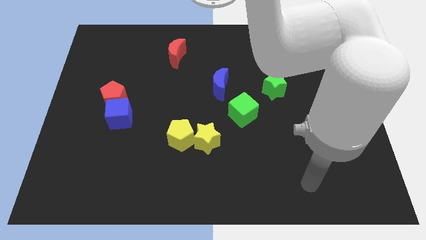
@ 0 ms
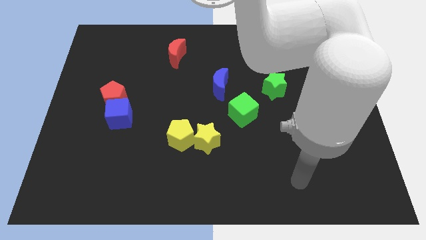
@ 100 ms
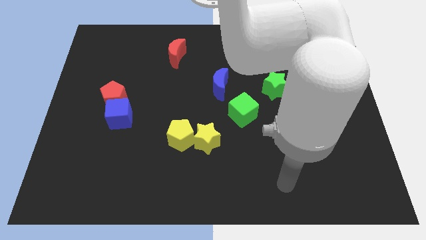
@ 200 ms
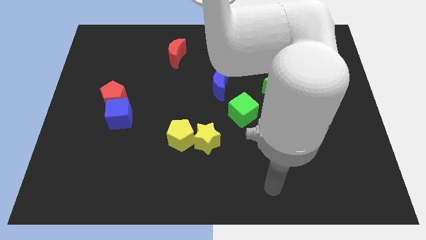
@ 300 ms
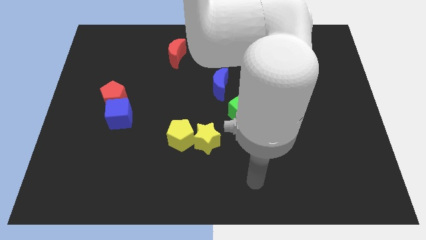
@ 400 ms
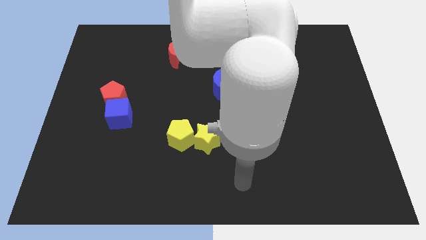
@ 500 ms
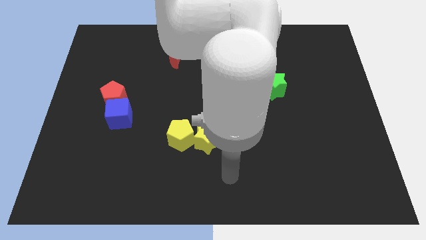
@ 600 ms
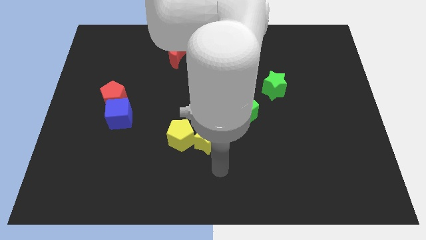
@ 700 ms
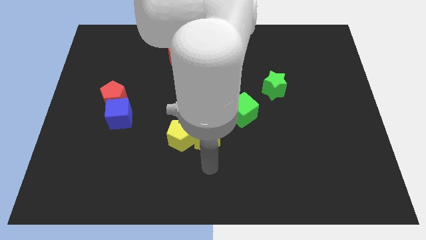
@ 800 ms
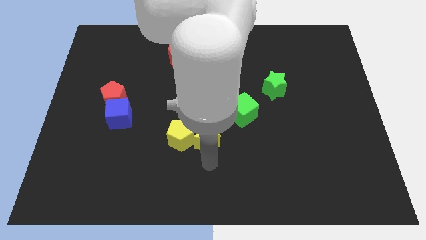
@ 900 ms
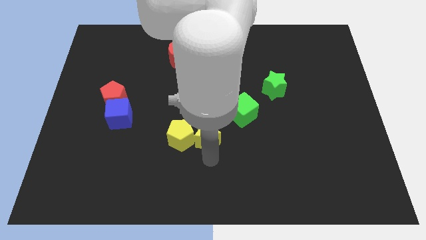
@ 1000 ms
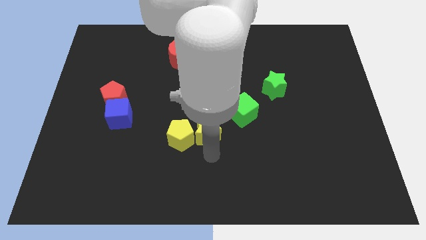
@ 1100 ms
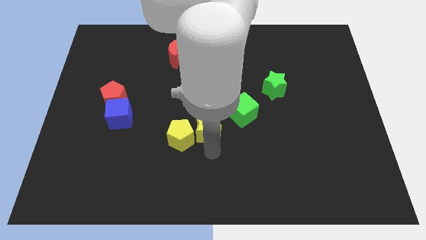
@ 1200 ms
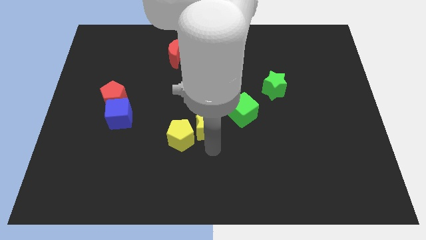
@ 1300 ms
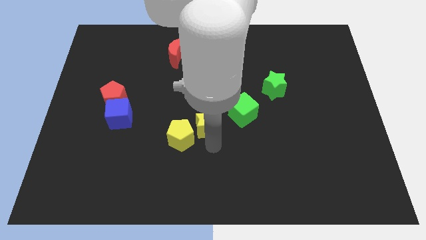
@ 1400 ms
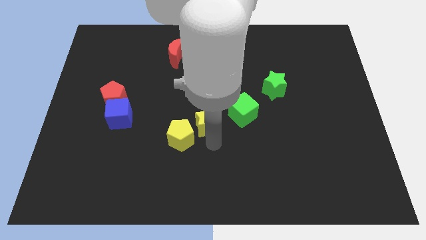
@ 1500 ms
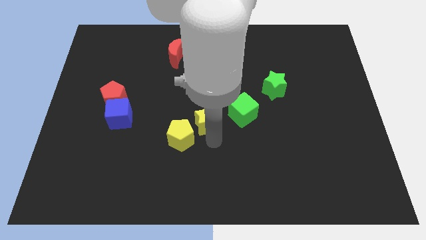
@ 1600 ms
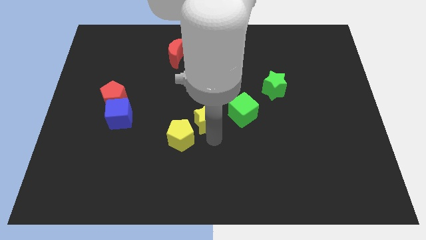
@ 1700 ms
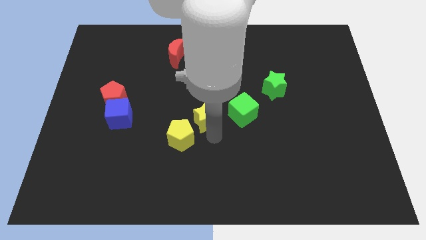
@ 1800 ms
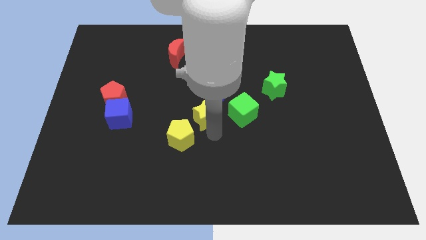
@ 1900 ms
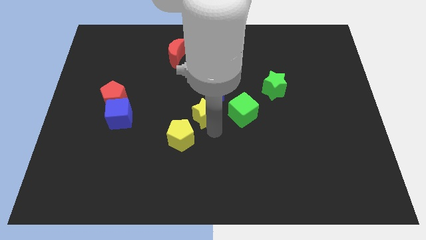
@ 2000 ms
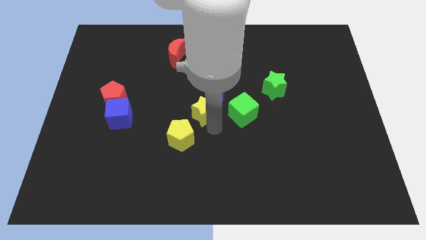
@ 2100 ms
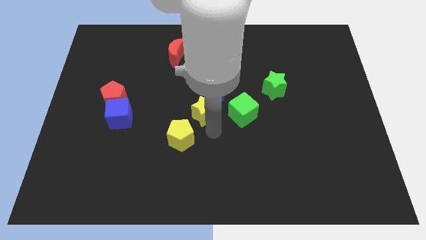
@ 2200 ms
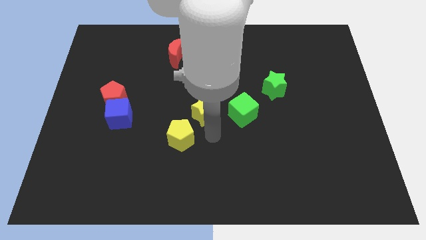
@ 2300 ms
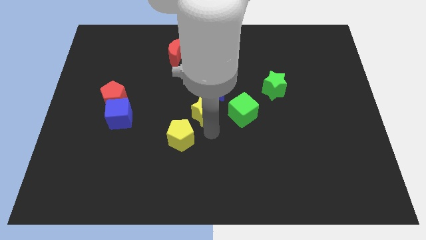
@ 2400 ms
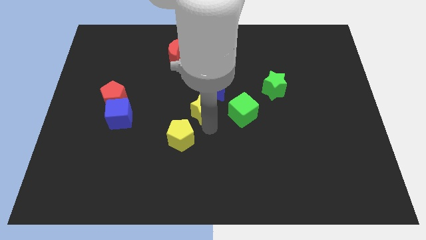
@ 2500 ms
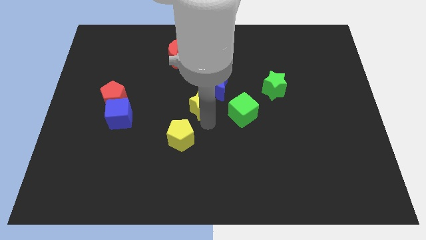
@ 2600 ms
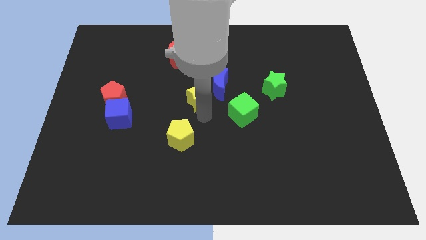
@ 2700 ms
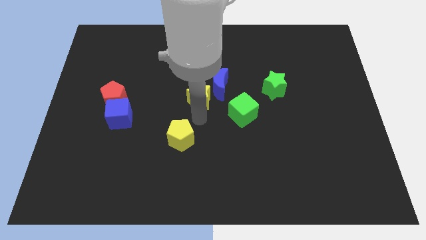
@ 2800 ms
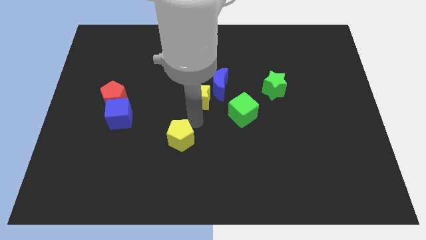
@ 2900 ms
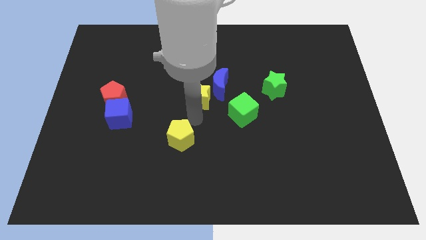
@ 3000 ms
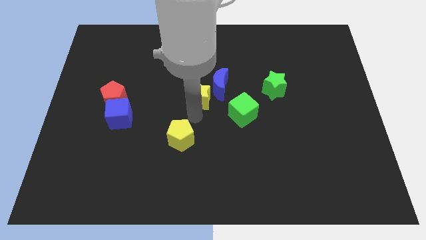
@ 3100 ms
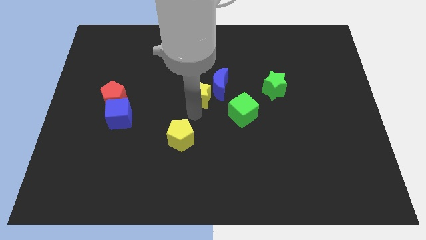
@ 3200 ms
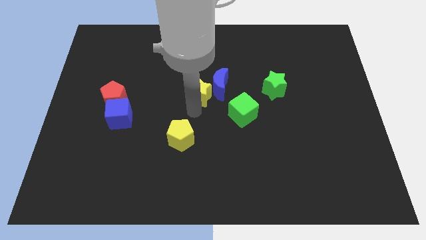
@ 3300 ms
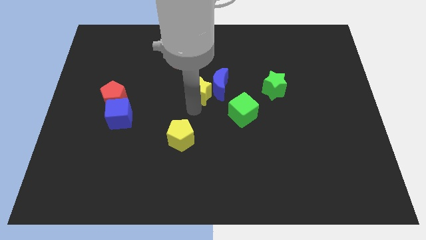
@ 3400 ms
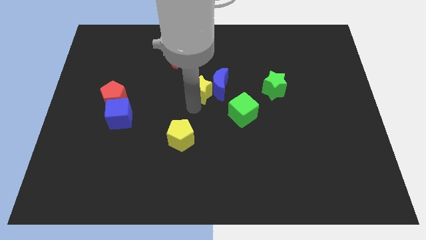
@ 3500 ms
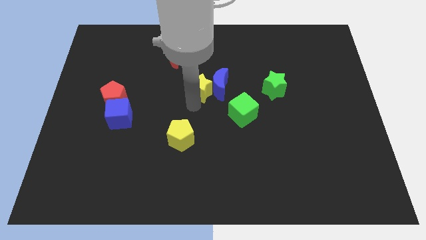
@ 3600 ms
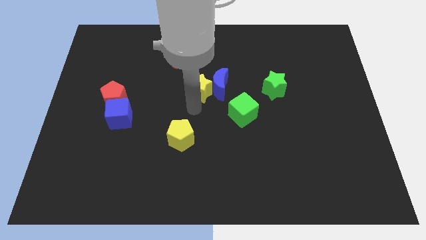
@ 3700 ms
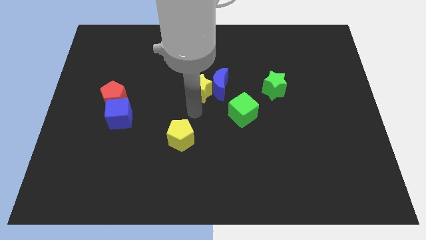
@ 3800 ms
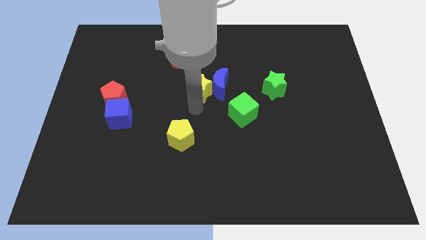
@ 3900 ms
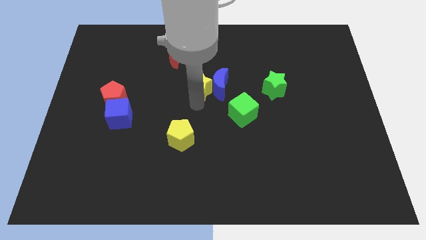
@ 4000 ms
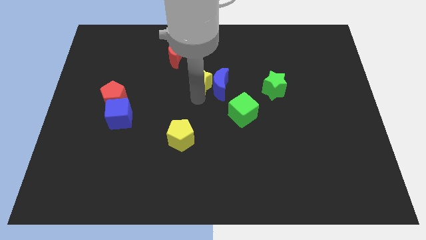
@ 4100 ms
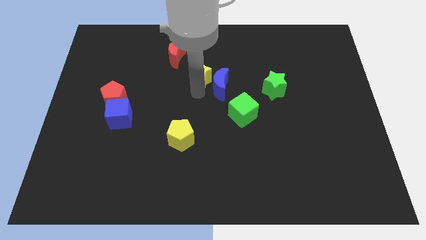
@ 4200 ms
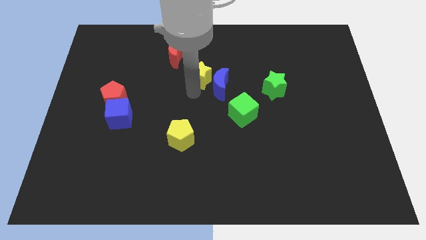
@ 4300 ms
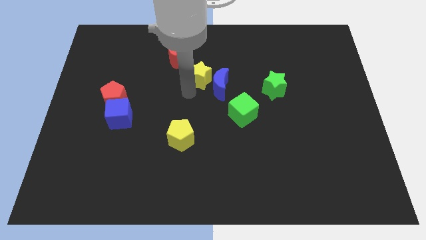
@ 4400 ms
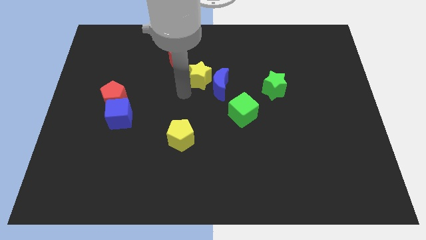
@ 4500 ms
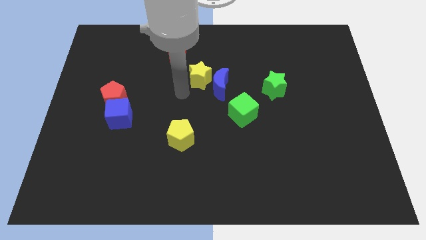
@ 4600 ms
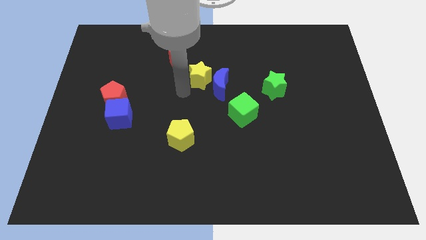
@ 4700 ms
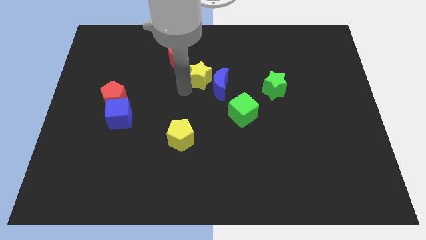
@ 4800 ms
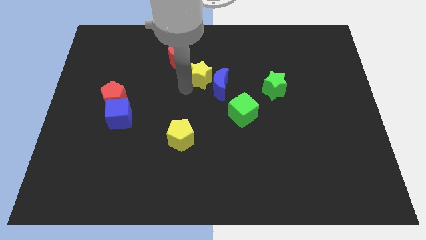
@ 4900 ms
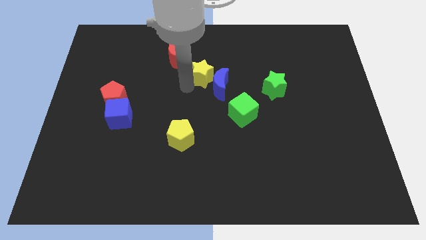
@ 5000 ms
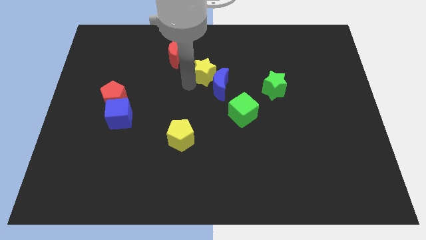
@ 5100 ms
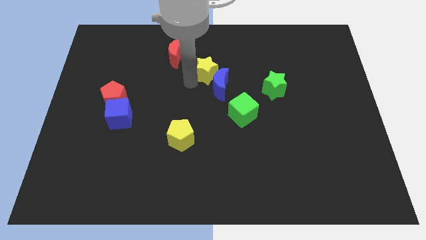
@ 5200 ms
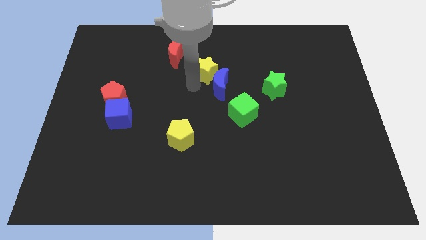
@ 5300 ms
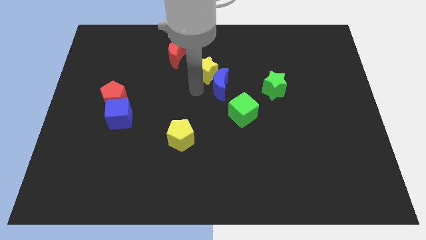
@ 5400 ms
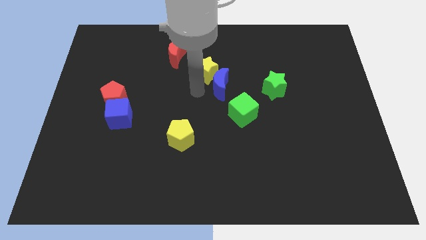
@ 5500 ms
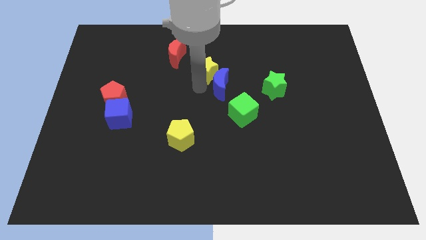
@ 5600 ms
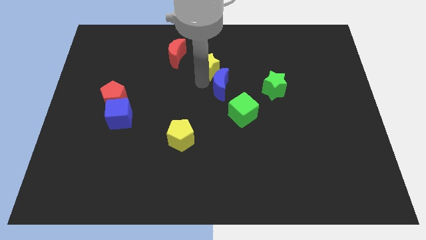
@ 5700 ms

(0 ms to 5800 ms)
put the yellow star just right of the red moon

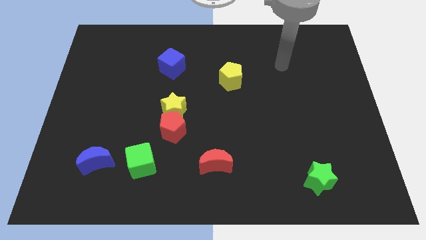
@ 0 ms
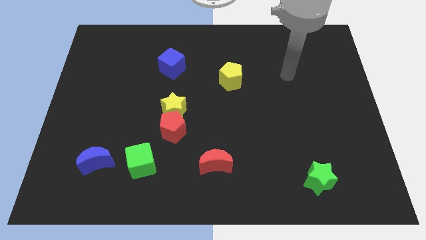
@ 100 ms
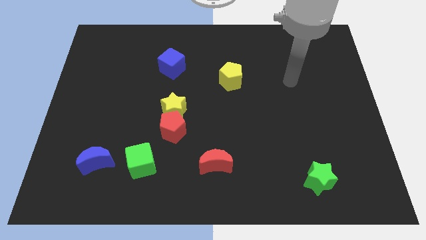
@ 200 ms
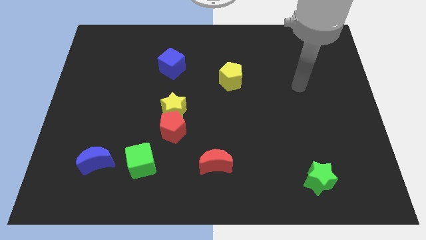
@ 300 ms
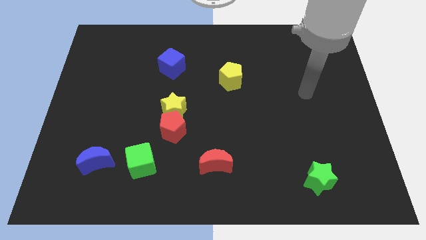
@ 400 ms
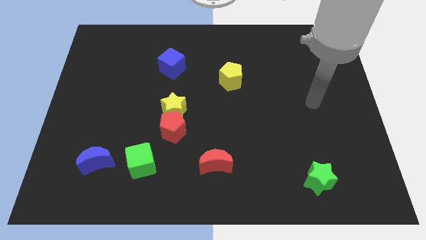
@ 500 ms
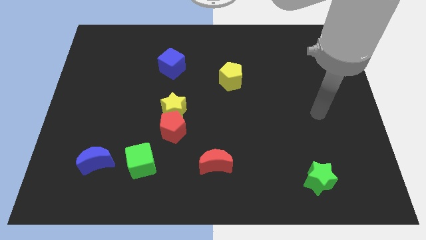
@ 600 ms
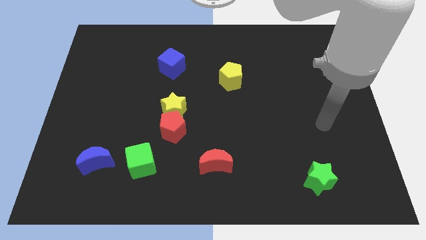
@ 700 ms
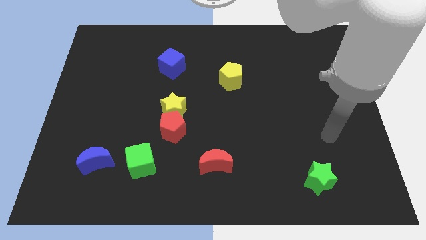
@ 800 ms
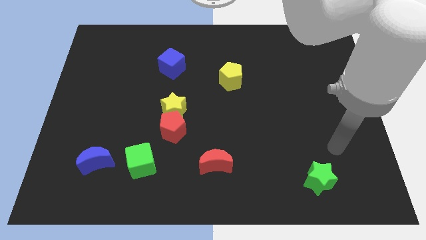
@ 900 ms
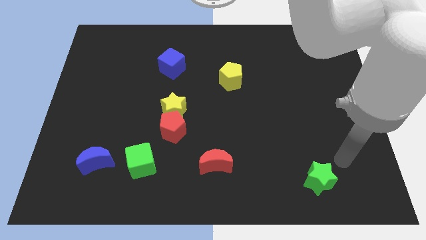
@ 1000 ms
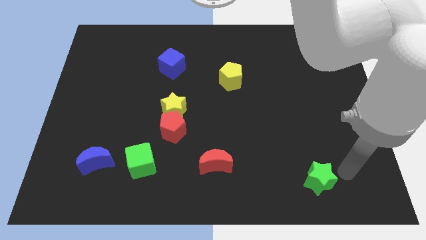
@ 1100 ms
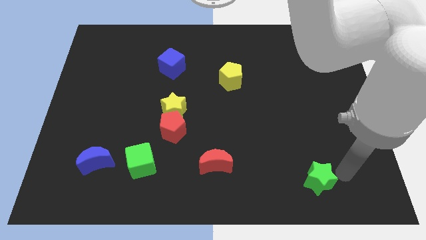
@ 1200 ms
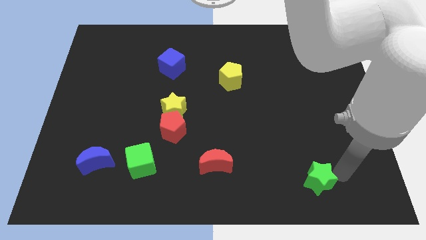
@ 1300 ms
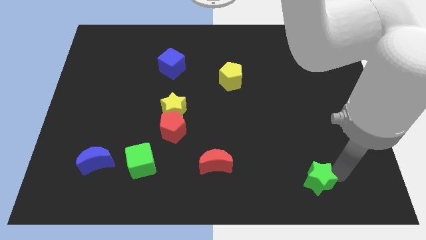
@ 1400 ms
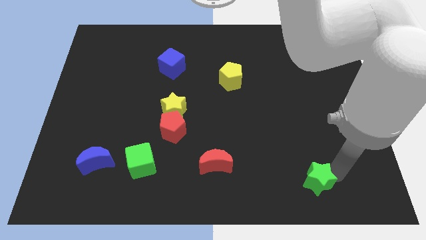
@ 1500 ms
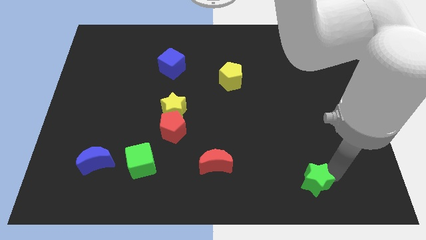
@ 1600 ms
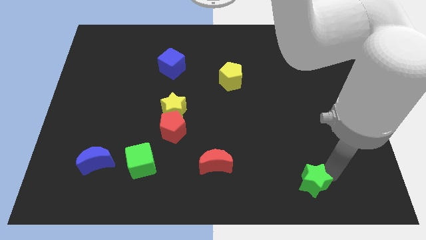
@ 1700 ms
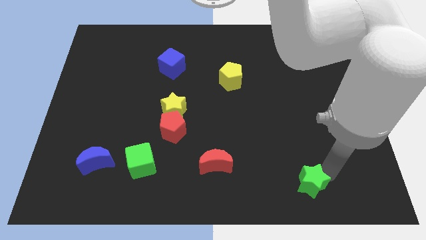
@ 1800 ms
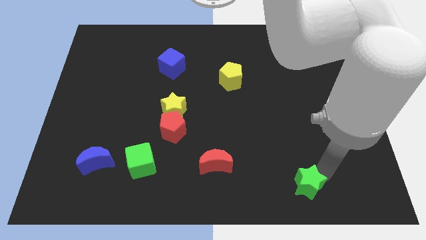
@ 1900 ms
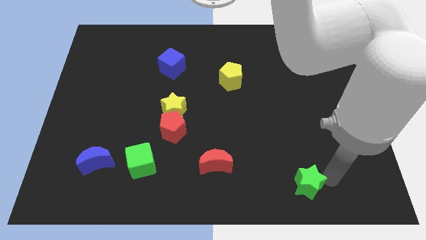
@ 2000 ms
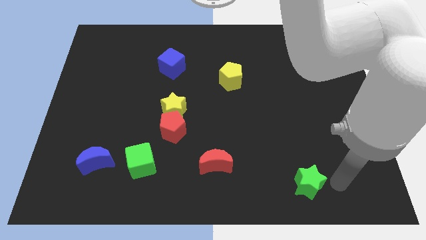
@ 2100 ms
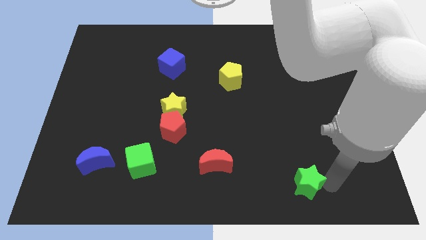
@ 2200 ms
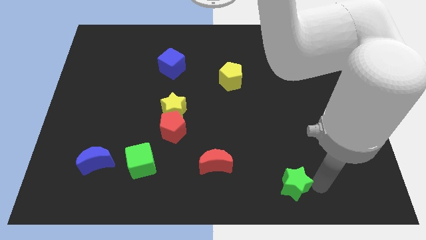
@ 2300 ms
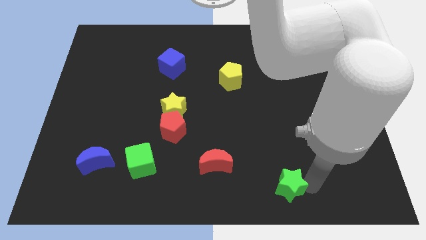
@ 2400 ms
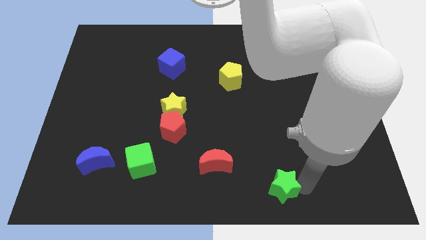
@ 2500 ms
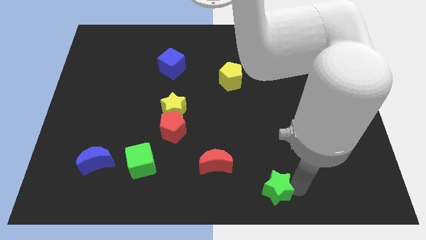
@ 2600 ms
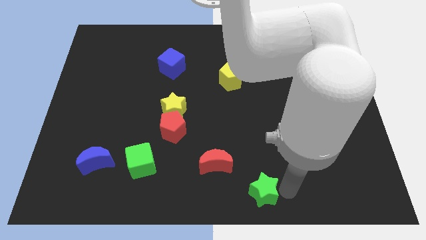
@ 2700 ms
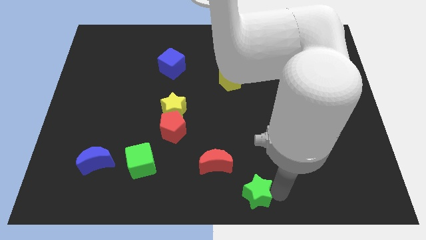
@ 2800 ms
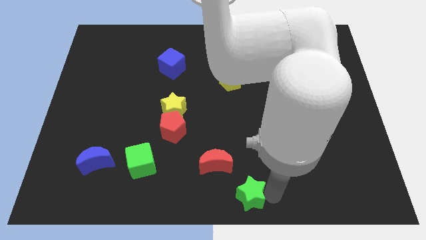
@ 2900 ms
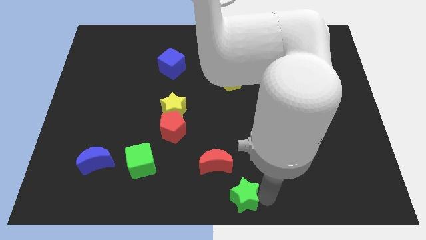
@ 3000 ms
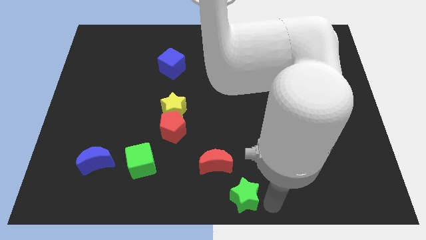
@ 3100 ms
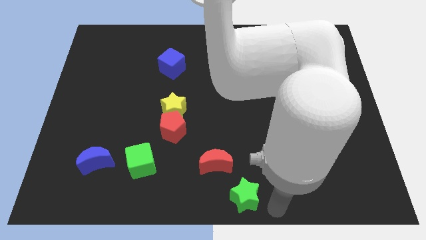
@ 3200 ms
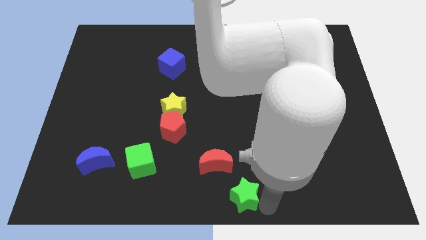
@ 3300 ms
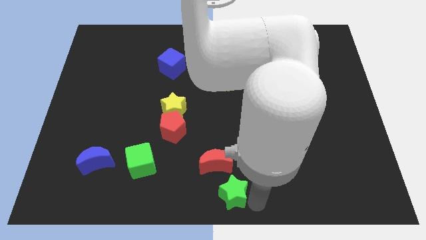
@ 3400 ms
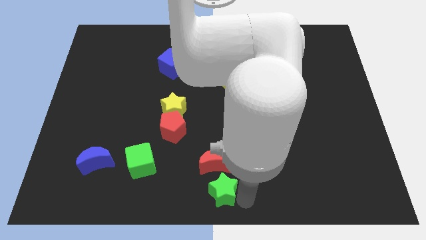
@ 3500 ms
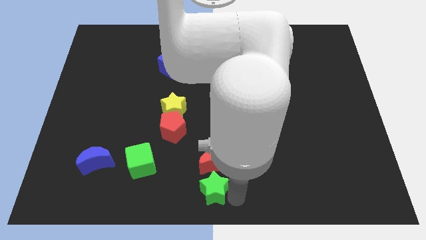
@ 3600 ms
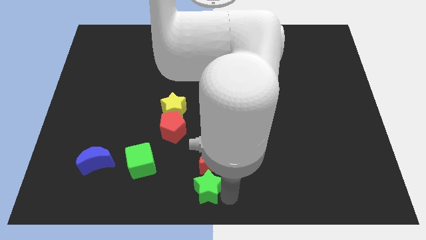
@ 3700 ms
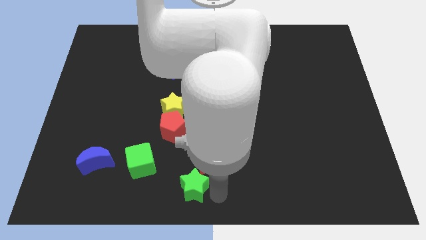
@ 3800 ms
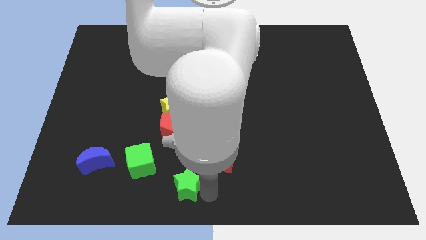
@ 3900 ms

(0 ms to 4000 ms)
push the green star to the bottom side of the red pentagon
